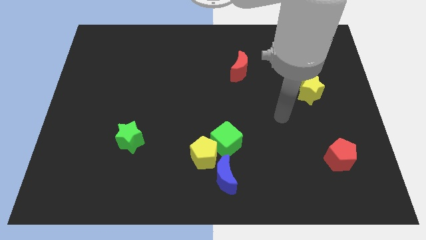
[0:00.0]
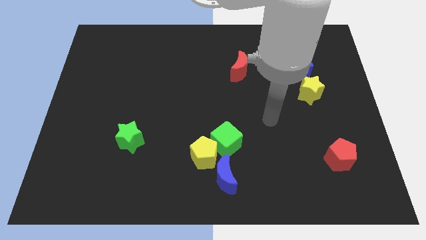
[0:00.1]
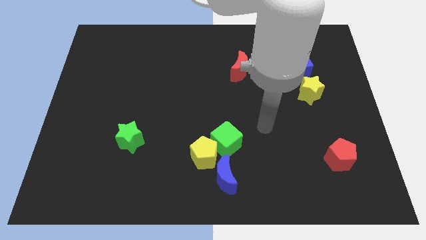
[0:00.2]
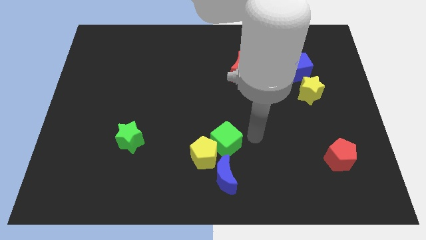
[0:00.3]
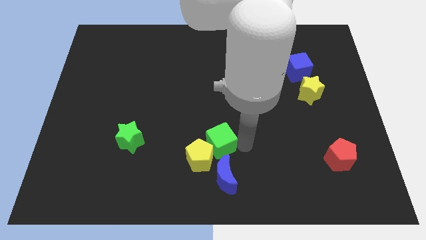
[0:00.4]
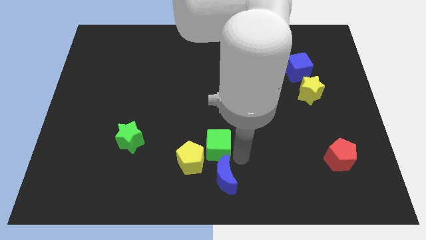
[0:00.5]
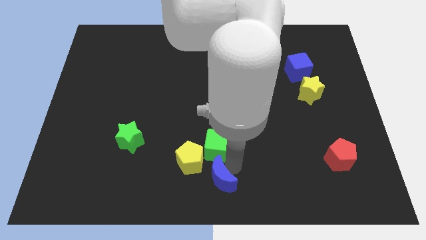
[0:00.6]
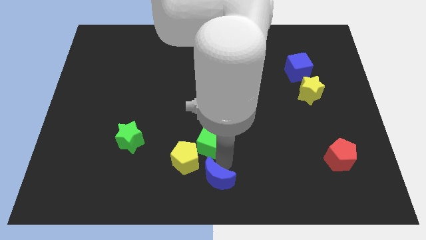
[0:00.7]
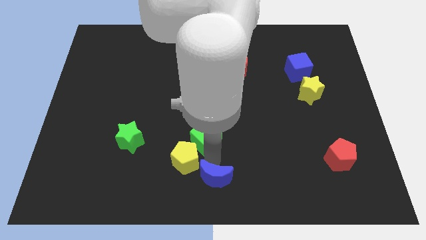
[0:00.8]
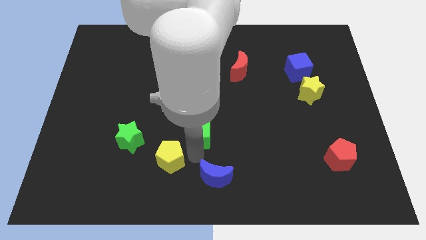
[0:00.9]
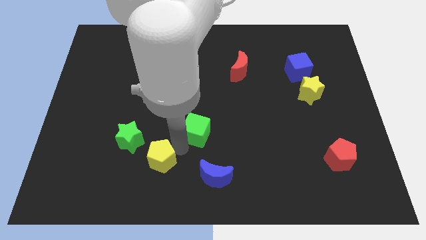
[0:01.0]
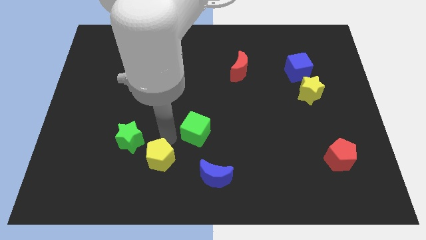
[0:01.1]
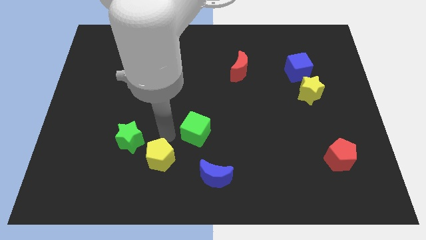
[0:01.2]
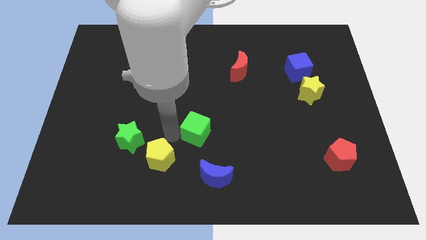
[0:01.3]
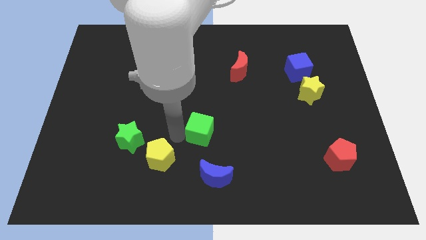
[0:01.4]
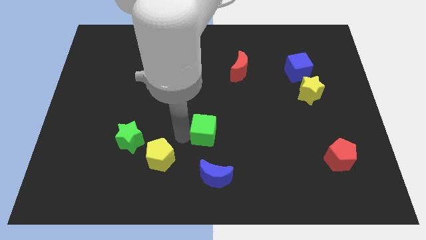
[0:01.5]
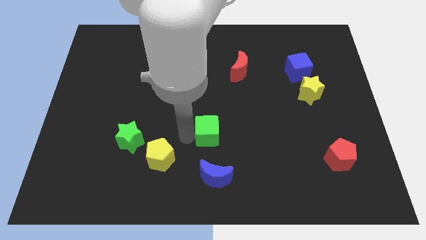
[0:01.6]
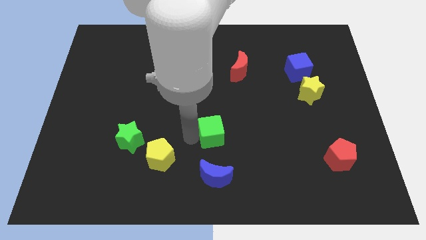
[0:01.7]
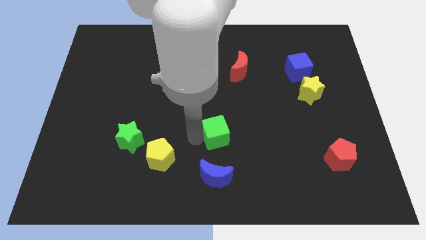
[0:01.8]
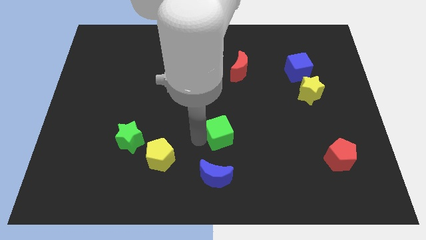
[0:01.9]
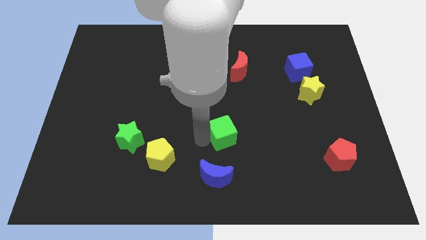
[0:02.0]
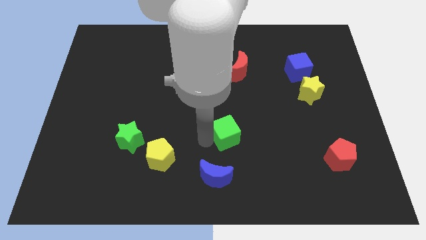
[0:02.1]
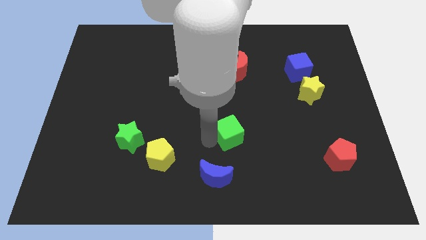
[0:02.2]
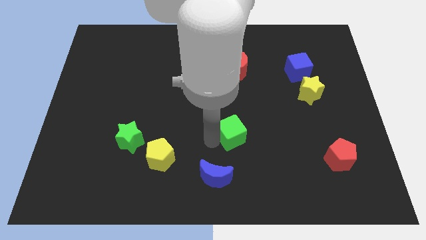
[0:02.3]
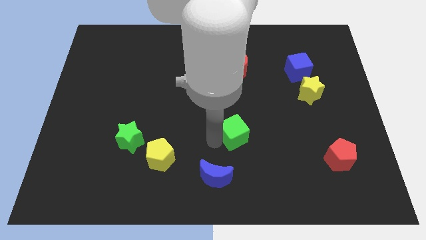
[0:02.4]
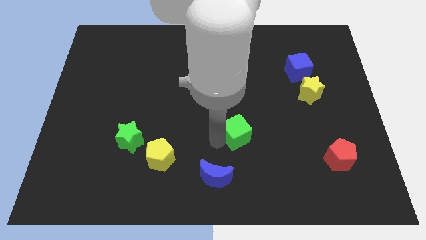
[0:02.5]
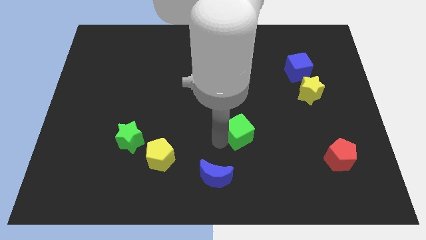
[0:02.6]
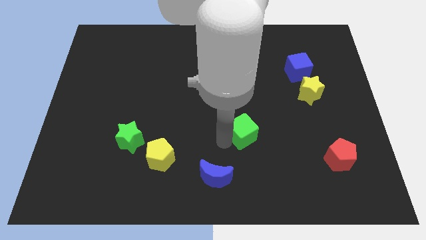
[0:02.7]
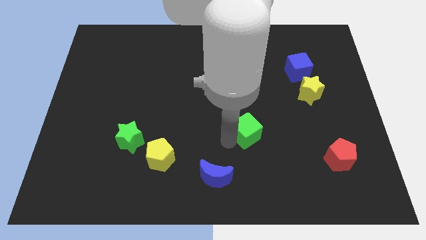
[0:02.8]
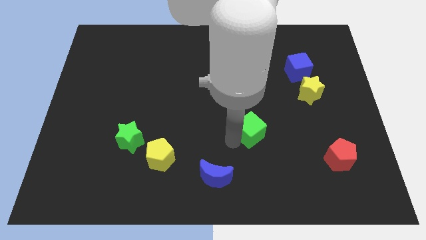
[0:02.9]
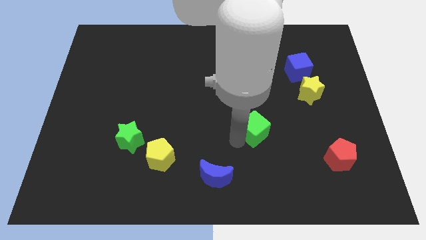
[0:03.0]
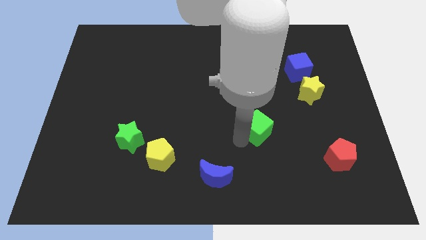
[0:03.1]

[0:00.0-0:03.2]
slightly push the green cube upwards and then to the right

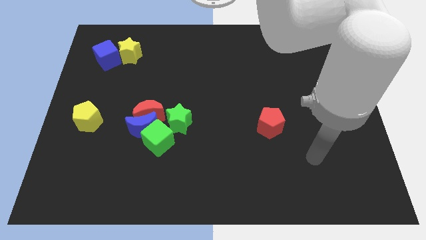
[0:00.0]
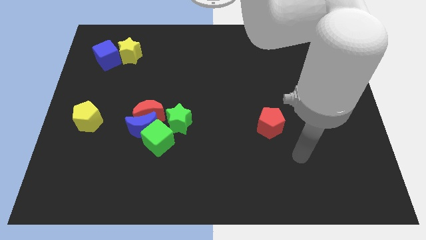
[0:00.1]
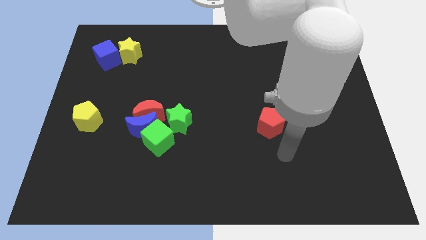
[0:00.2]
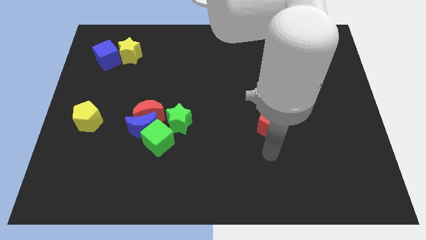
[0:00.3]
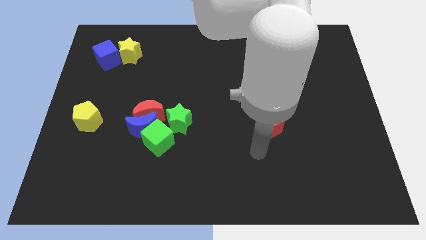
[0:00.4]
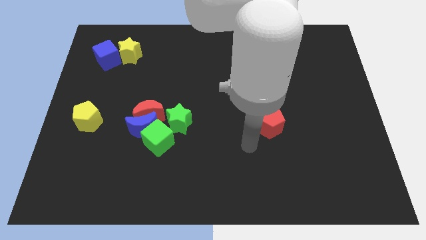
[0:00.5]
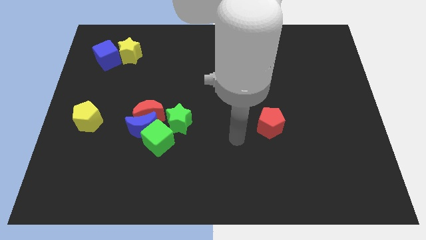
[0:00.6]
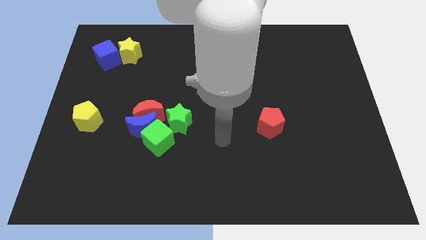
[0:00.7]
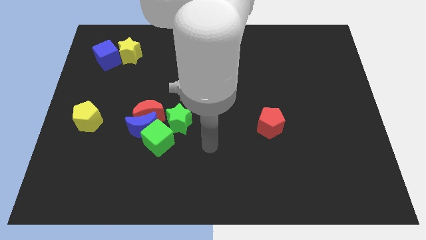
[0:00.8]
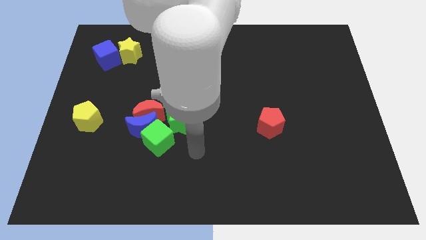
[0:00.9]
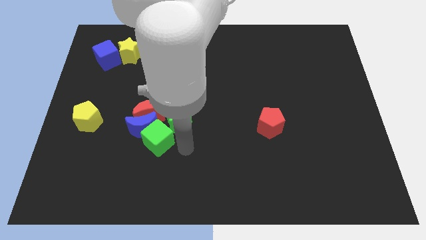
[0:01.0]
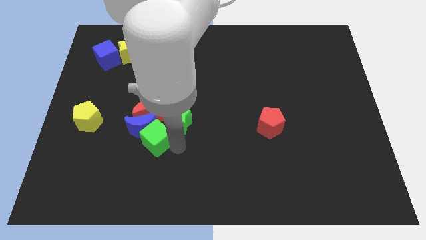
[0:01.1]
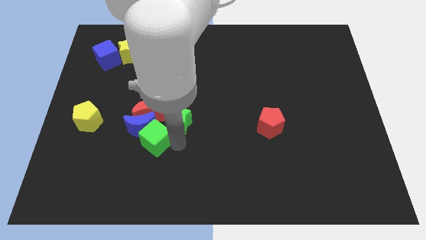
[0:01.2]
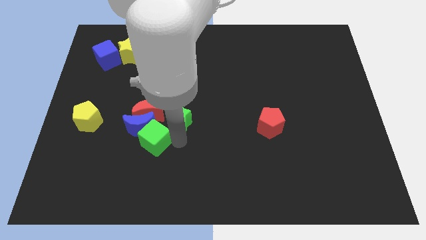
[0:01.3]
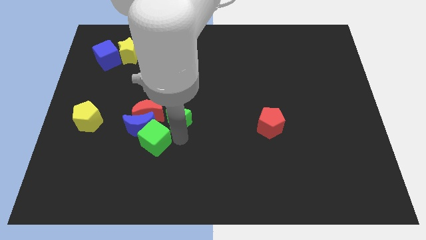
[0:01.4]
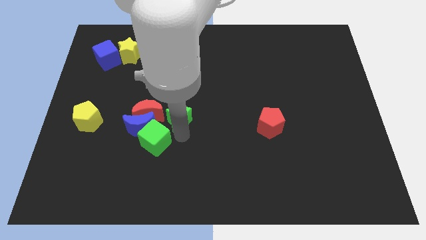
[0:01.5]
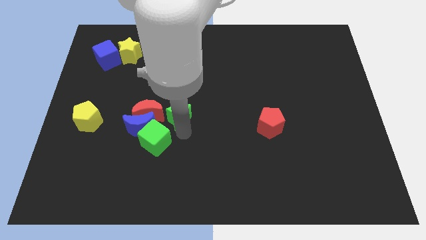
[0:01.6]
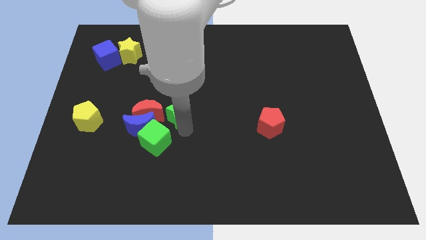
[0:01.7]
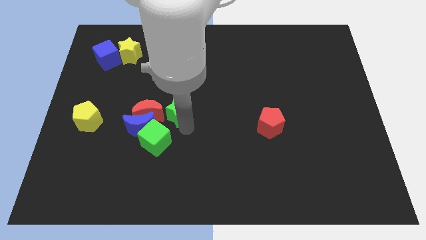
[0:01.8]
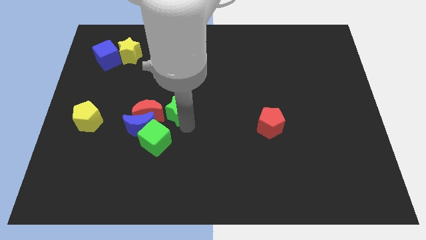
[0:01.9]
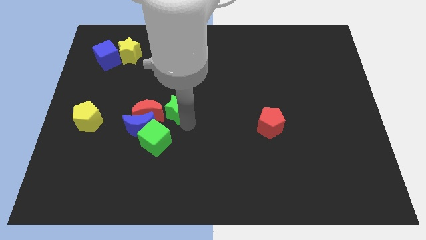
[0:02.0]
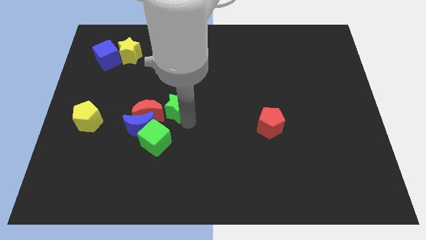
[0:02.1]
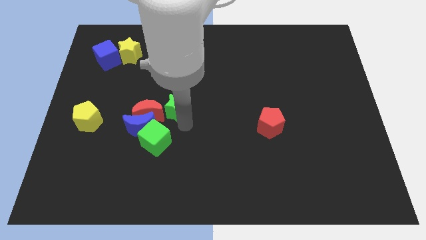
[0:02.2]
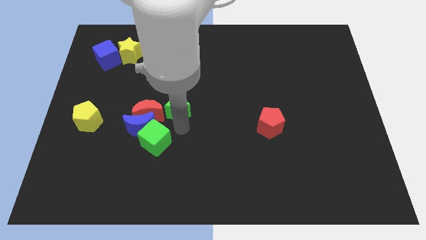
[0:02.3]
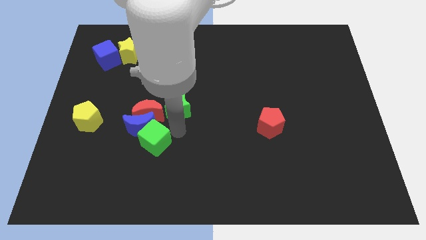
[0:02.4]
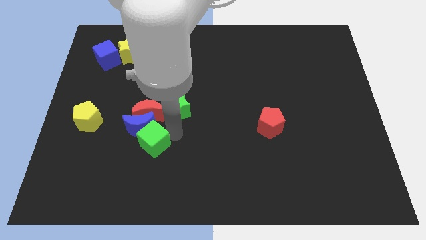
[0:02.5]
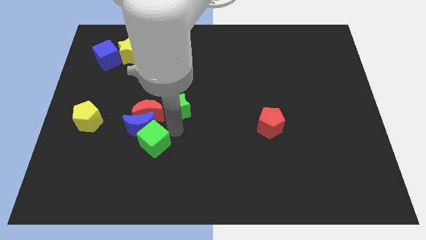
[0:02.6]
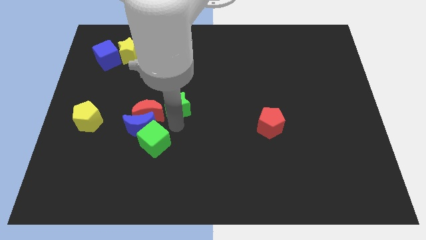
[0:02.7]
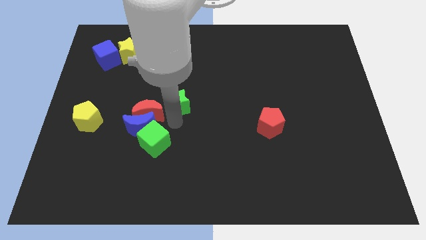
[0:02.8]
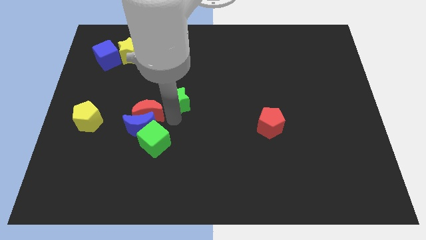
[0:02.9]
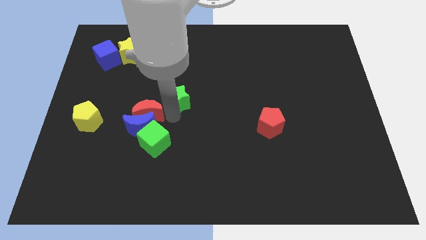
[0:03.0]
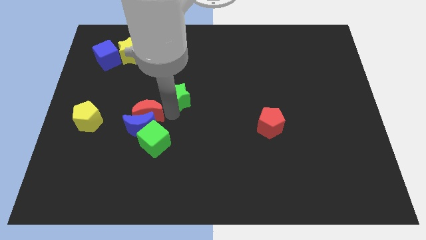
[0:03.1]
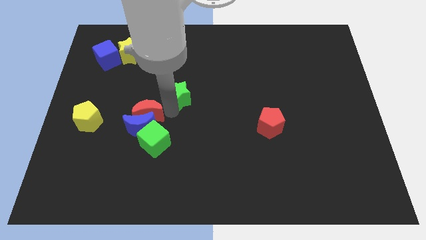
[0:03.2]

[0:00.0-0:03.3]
move the green star a little upwards

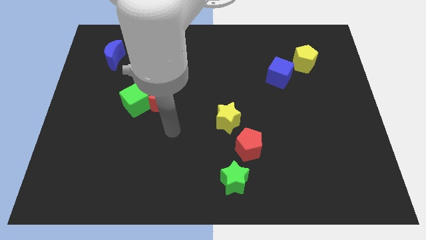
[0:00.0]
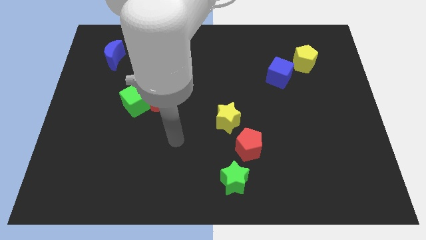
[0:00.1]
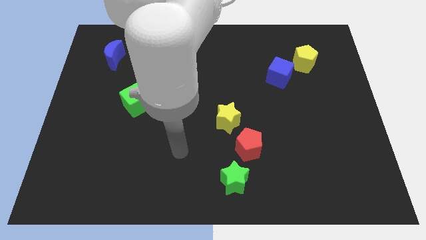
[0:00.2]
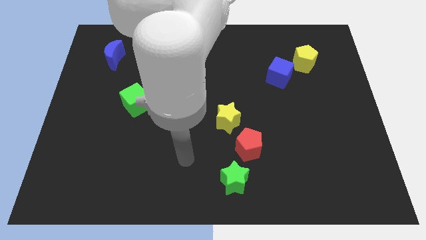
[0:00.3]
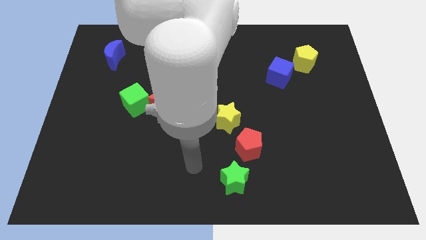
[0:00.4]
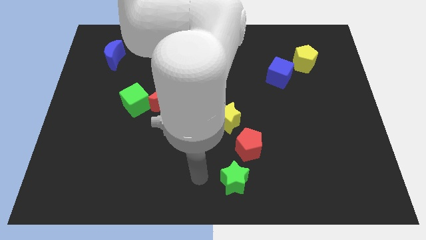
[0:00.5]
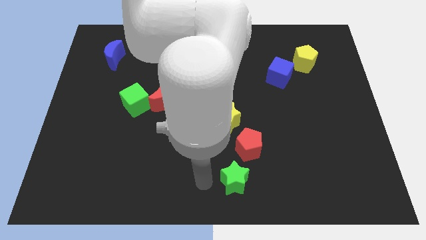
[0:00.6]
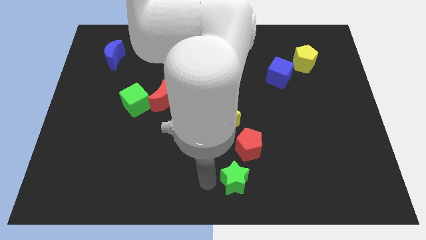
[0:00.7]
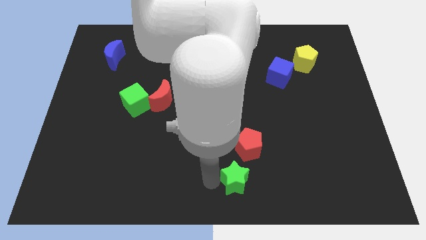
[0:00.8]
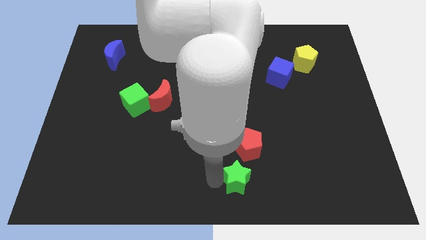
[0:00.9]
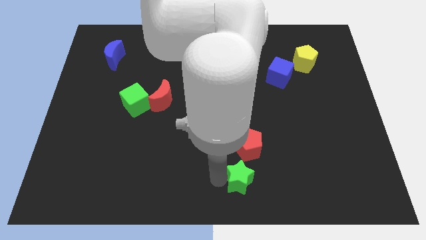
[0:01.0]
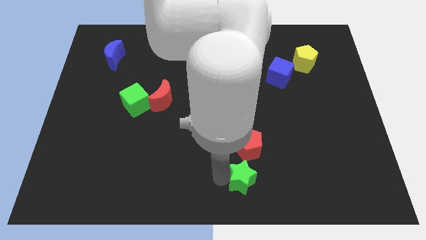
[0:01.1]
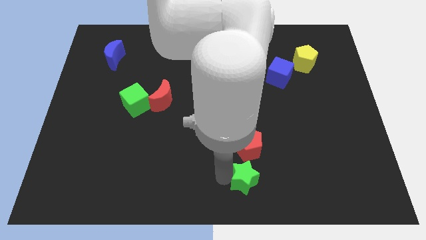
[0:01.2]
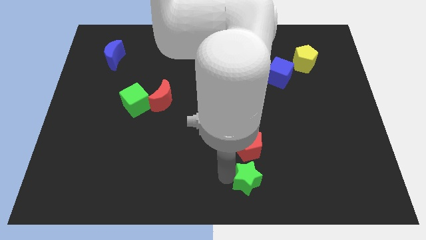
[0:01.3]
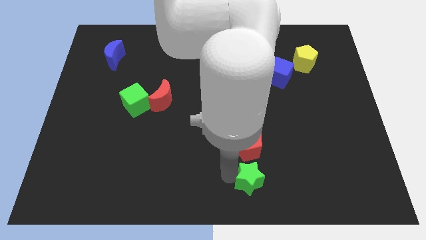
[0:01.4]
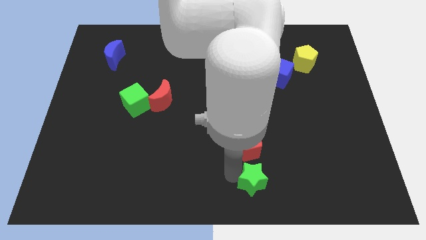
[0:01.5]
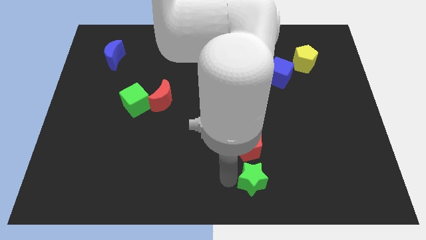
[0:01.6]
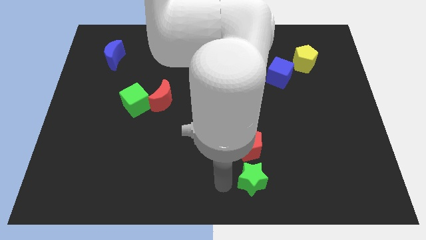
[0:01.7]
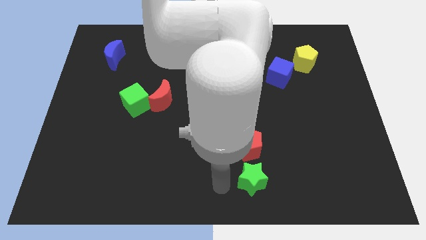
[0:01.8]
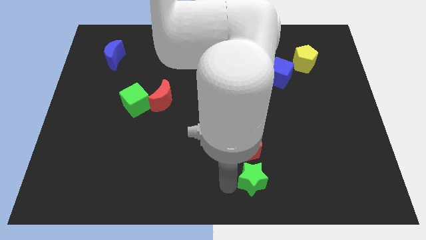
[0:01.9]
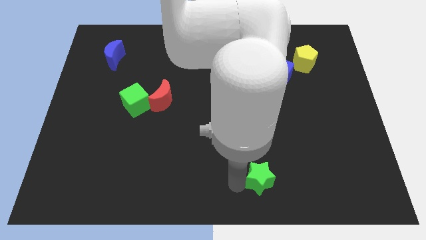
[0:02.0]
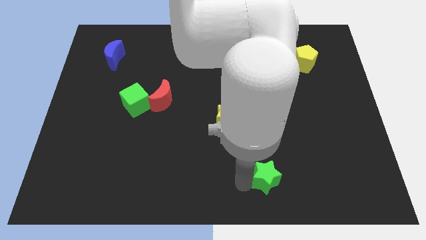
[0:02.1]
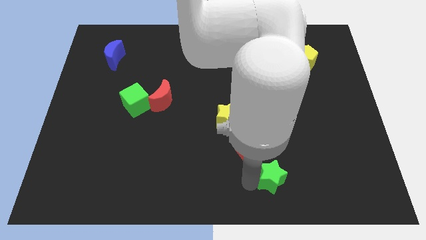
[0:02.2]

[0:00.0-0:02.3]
slide the green star right a little bit
